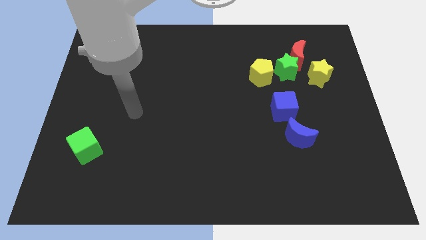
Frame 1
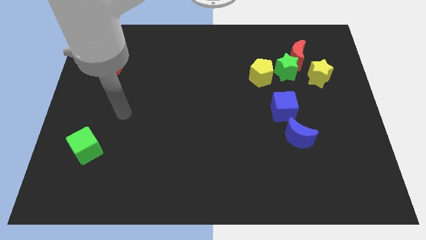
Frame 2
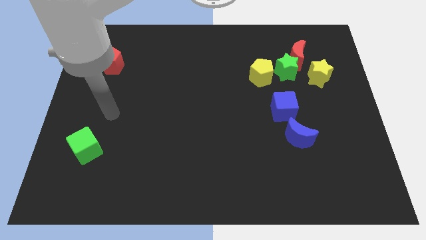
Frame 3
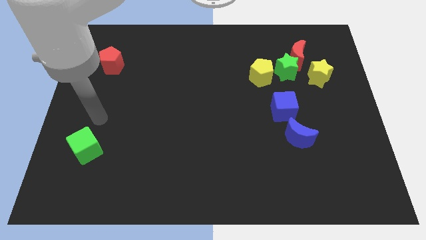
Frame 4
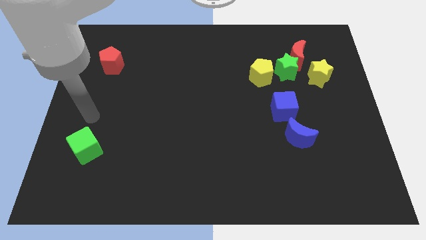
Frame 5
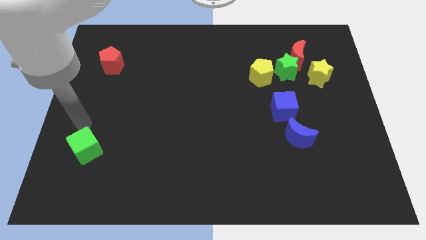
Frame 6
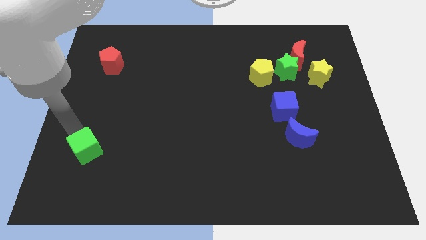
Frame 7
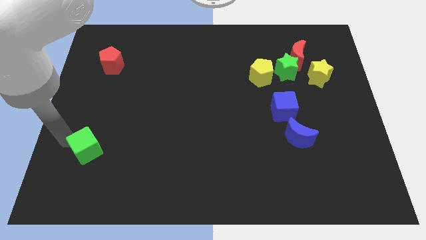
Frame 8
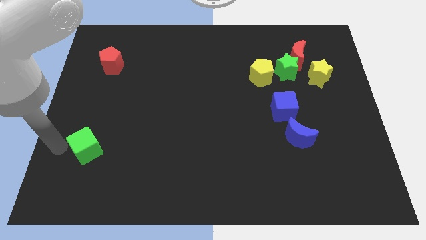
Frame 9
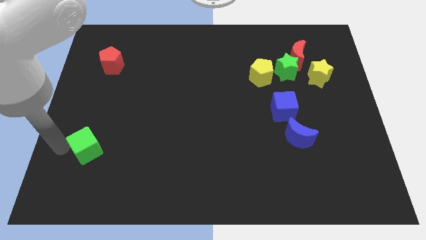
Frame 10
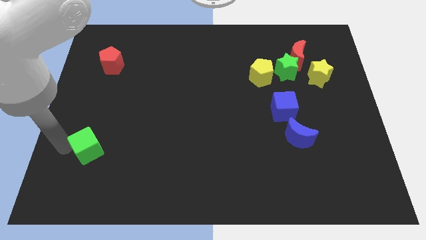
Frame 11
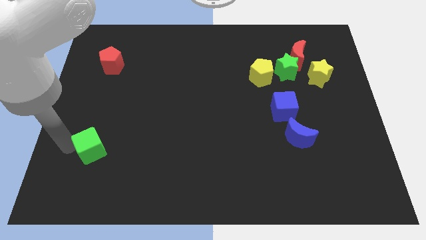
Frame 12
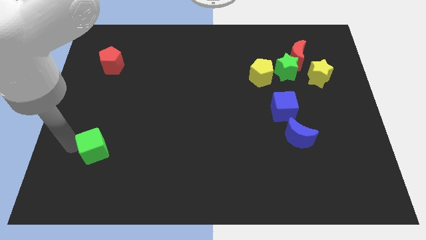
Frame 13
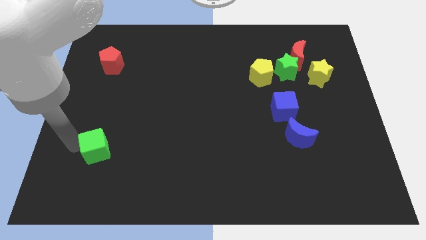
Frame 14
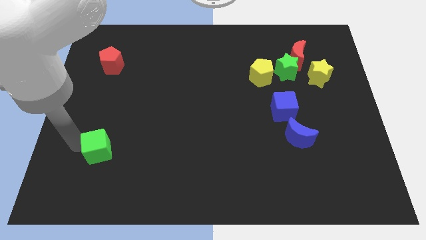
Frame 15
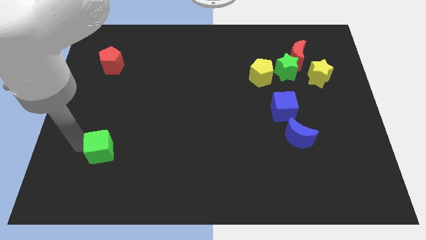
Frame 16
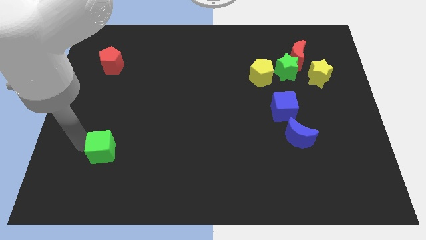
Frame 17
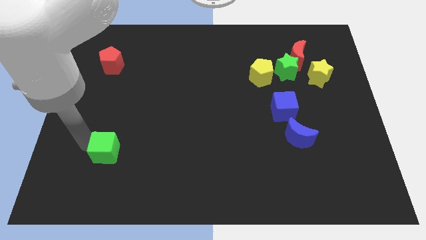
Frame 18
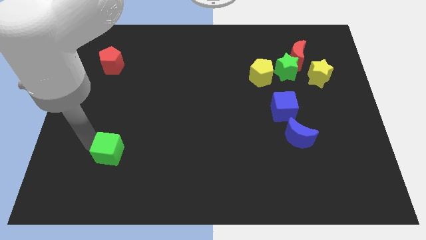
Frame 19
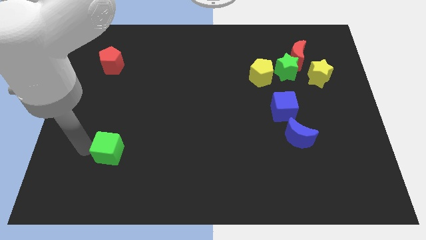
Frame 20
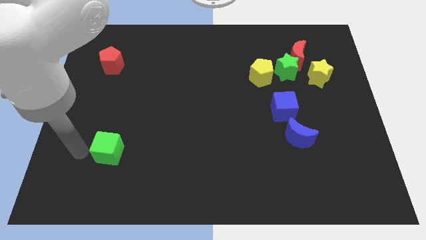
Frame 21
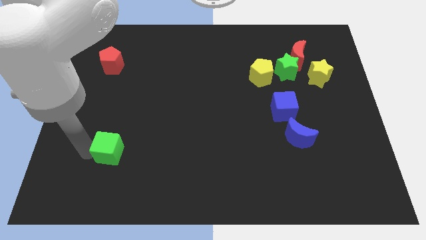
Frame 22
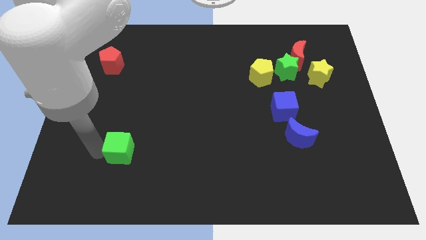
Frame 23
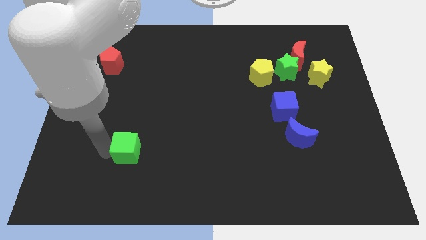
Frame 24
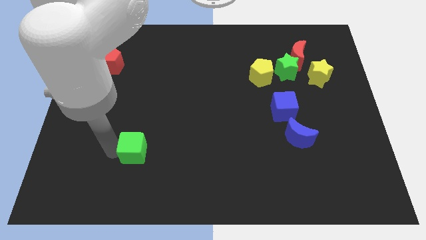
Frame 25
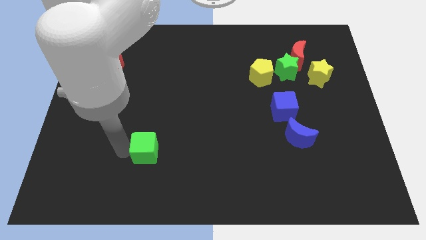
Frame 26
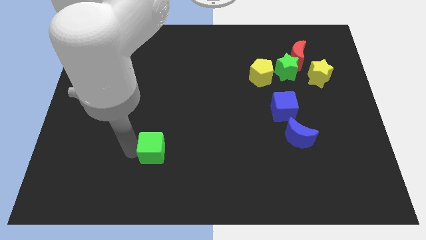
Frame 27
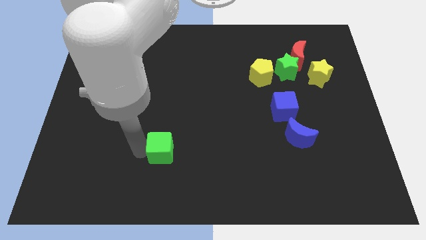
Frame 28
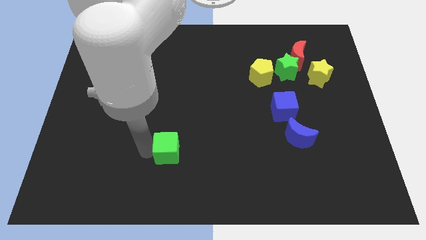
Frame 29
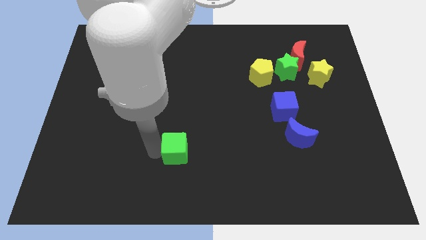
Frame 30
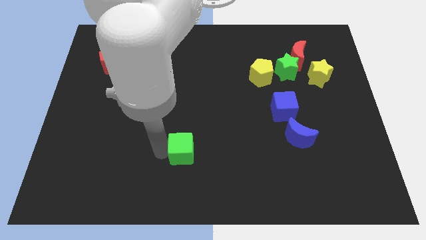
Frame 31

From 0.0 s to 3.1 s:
push the green cube to the right

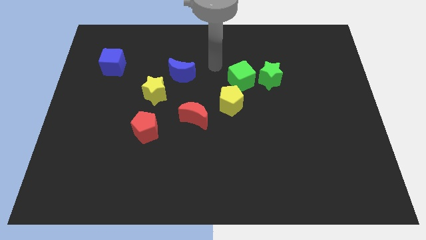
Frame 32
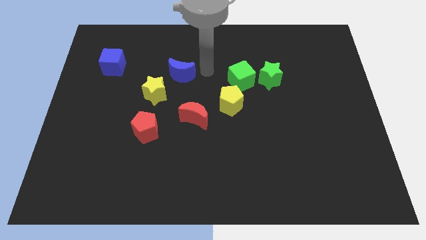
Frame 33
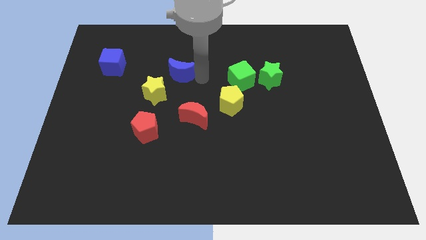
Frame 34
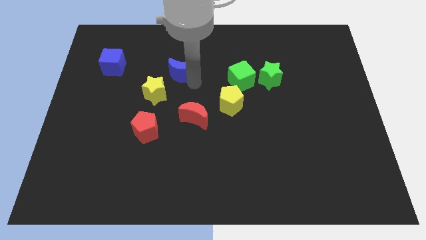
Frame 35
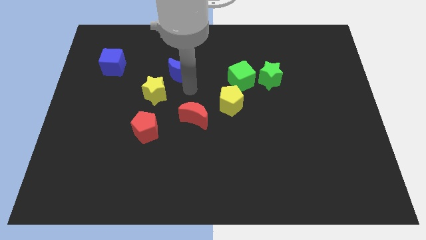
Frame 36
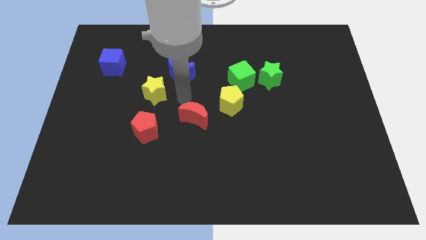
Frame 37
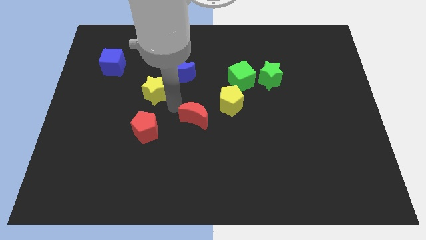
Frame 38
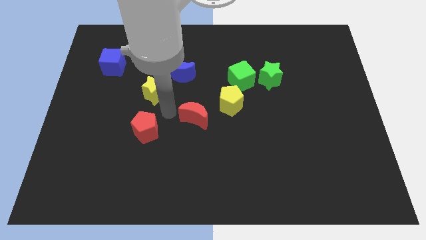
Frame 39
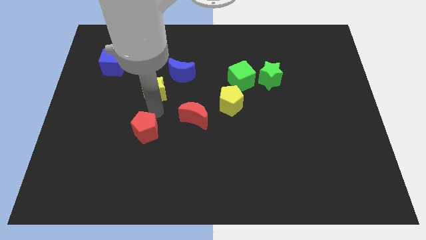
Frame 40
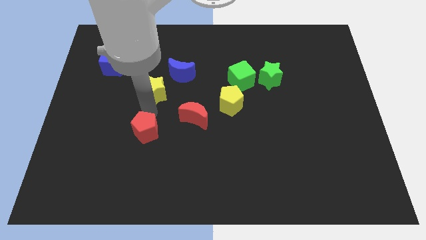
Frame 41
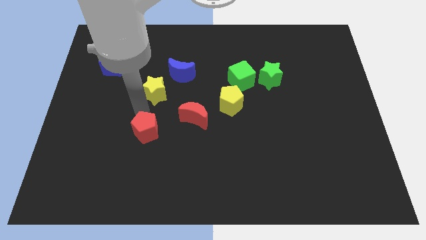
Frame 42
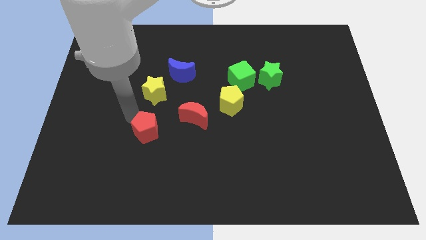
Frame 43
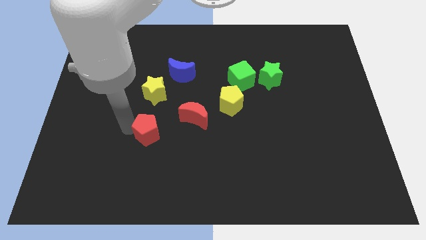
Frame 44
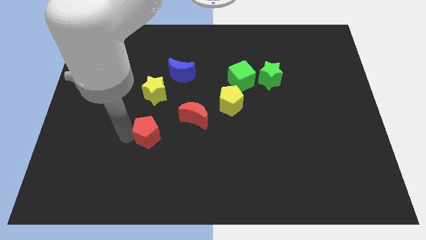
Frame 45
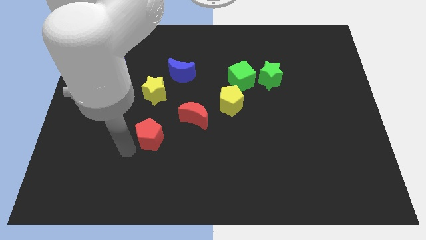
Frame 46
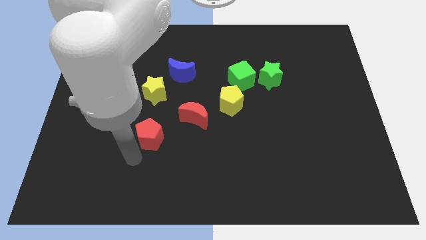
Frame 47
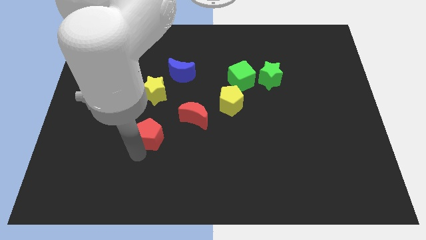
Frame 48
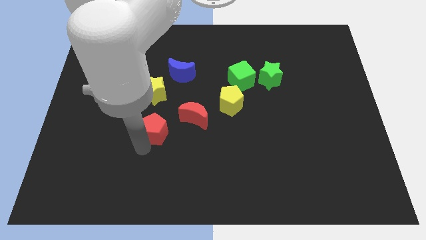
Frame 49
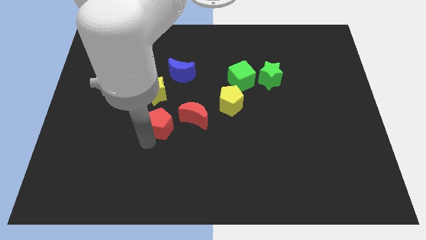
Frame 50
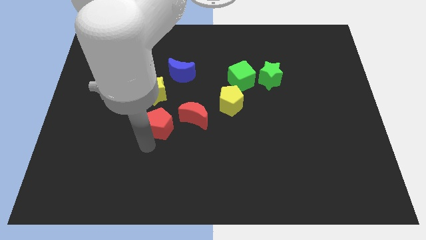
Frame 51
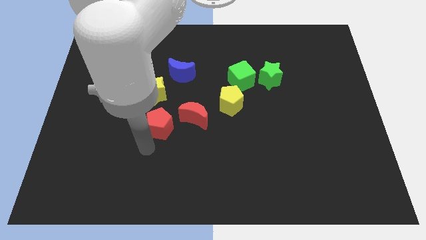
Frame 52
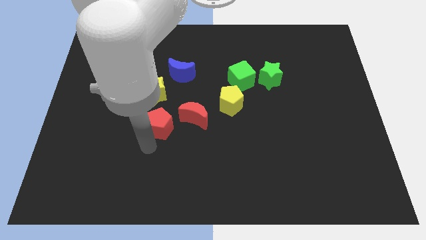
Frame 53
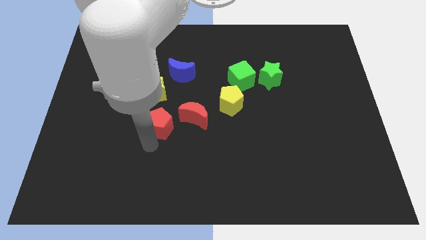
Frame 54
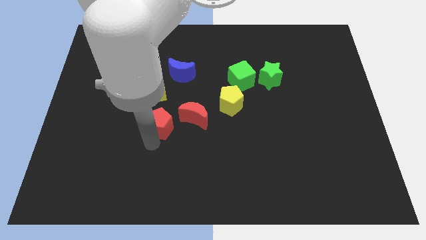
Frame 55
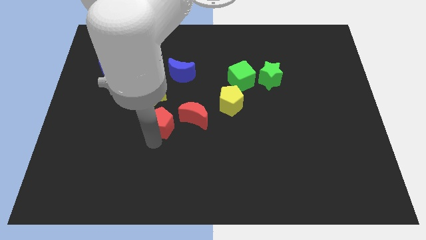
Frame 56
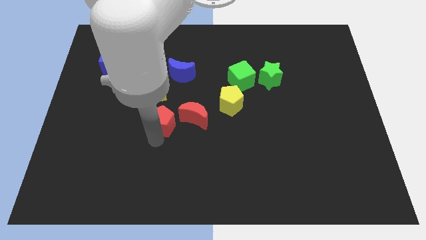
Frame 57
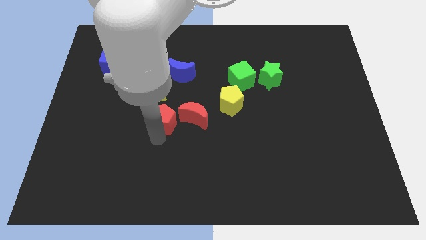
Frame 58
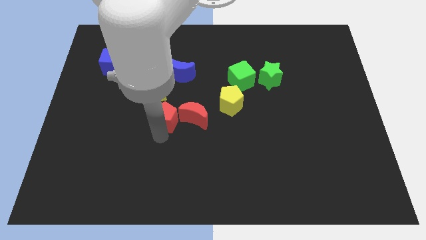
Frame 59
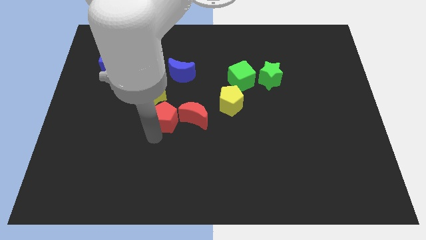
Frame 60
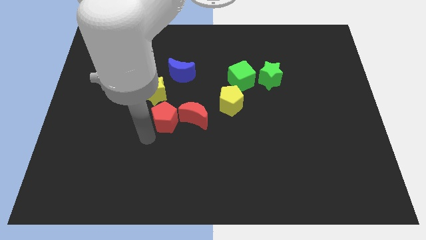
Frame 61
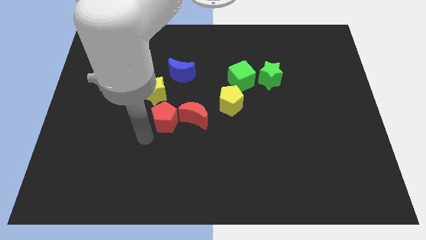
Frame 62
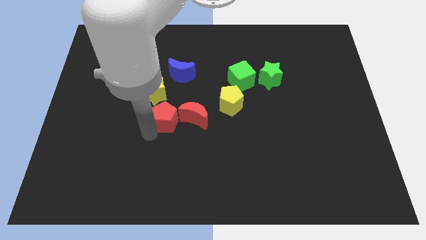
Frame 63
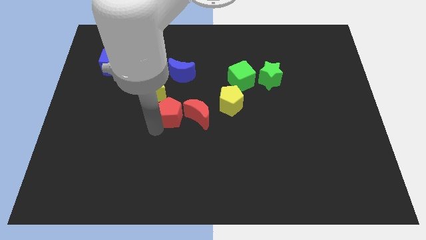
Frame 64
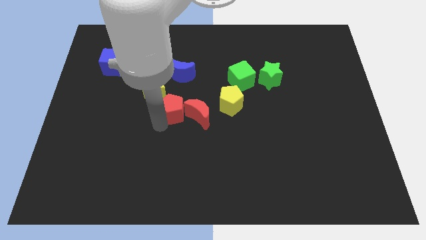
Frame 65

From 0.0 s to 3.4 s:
push the red pentagon a little diagonally up and to the right

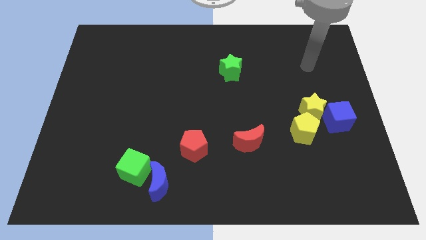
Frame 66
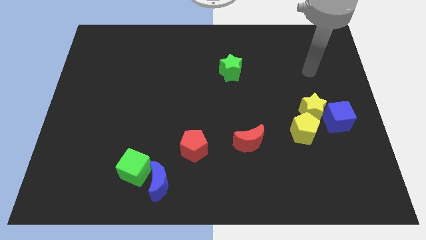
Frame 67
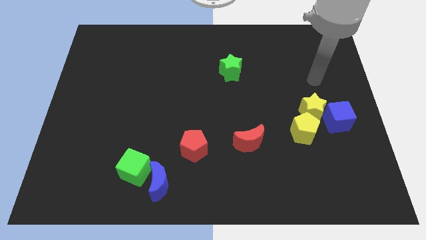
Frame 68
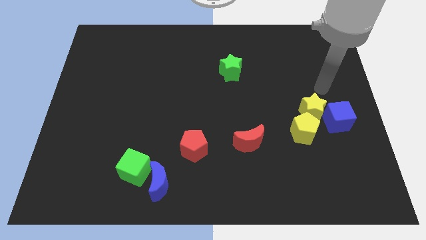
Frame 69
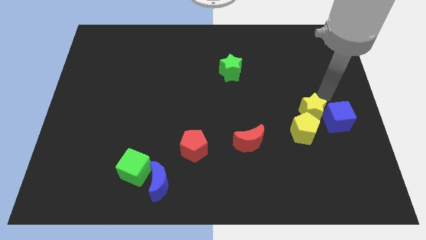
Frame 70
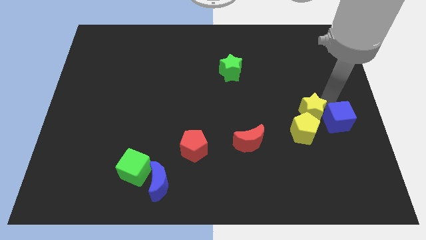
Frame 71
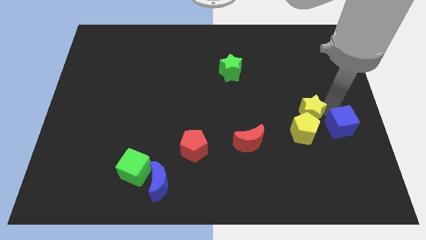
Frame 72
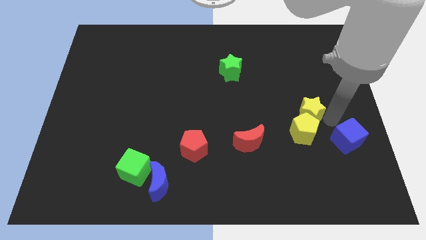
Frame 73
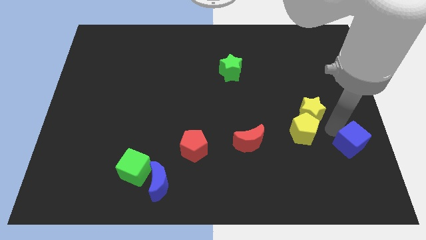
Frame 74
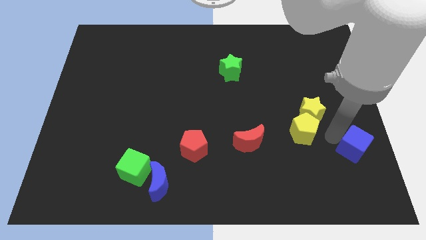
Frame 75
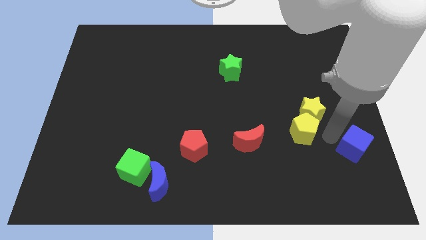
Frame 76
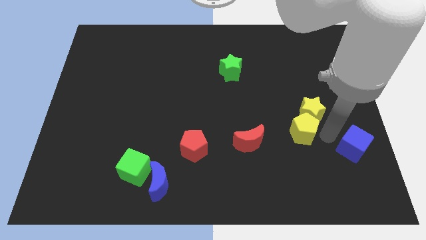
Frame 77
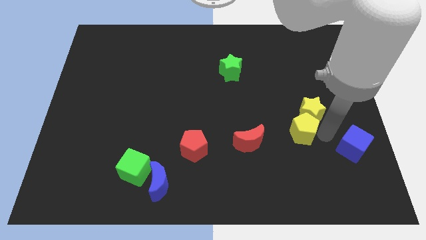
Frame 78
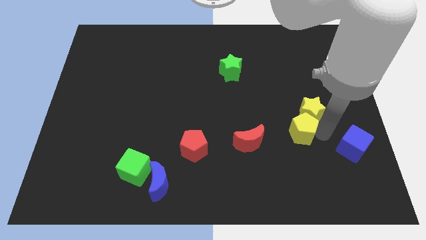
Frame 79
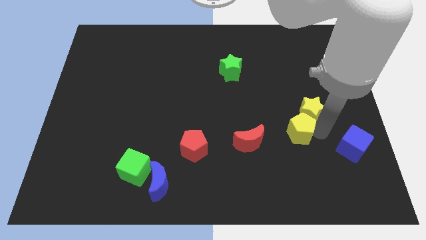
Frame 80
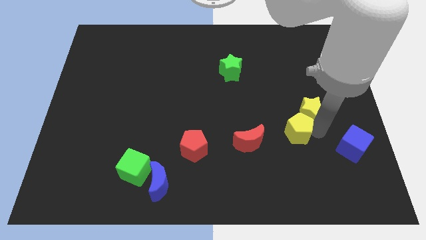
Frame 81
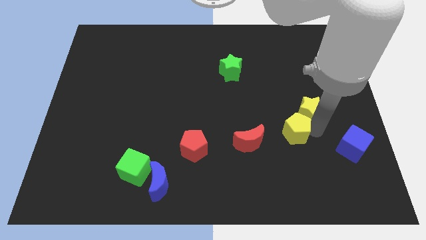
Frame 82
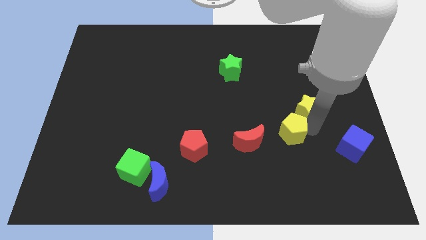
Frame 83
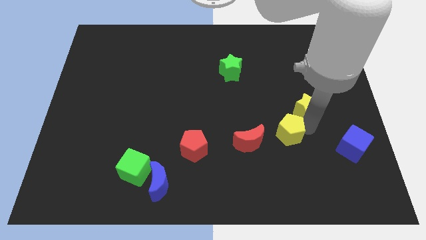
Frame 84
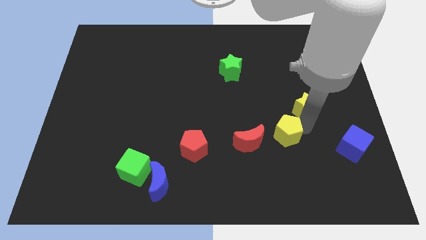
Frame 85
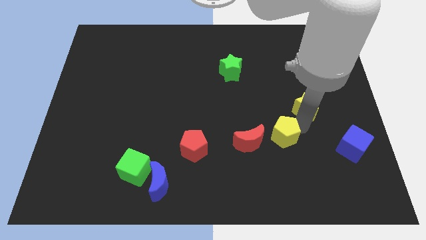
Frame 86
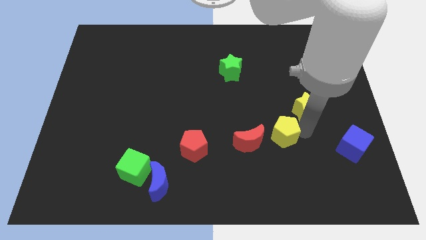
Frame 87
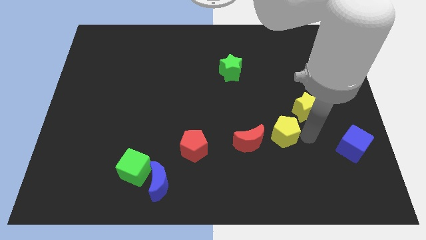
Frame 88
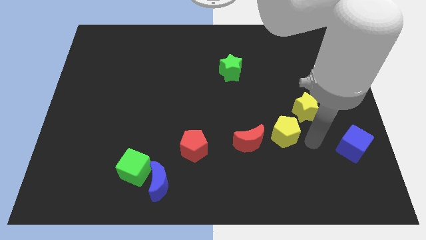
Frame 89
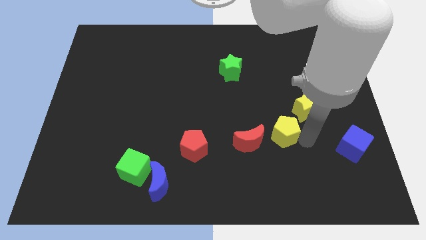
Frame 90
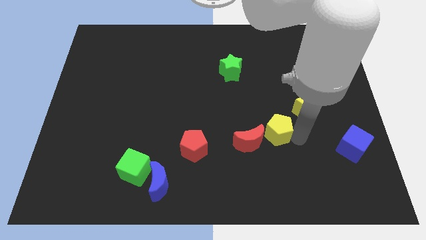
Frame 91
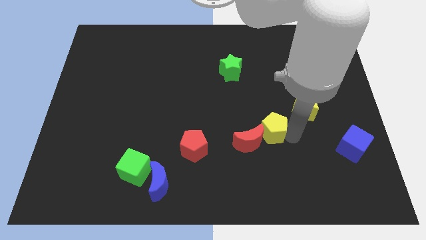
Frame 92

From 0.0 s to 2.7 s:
push the yellow pentagon left somewhat
